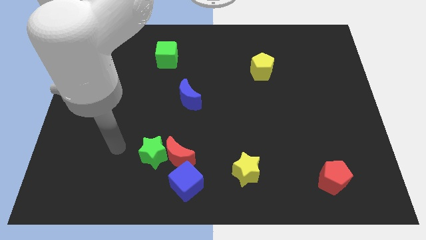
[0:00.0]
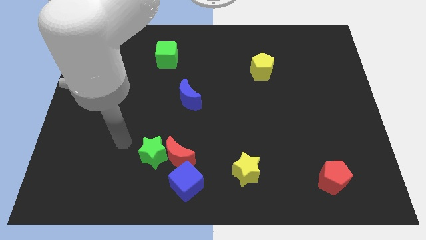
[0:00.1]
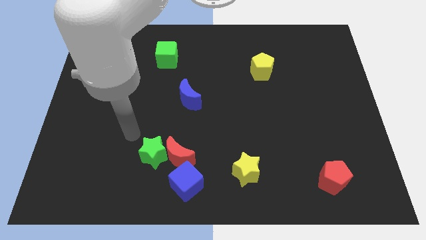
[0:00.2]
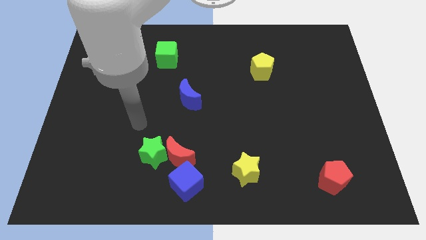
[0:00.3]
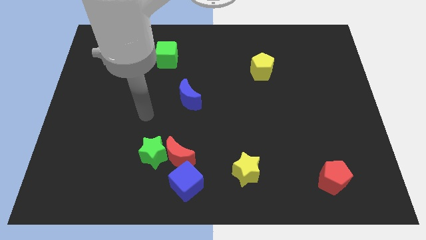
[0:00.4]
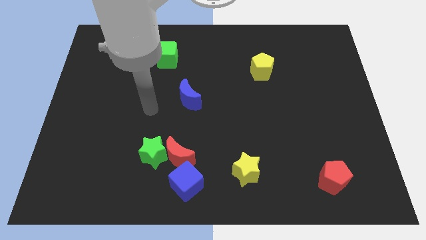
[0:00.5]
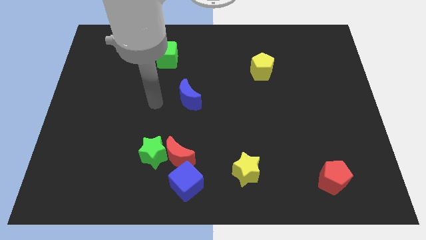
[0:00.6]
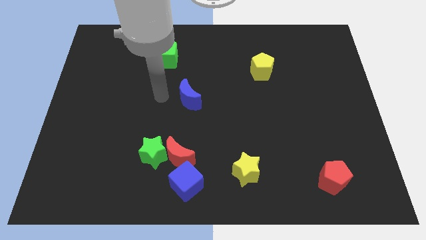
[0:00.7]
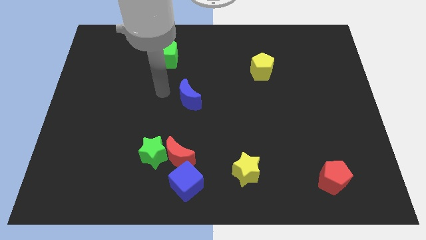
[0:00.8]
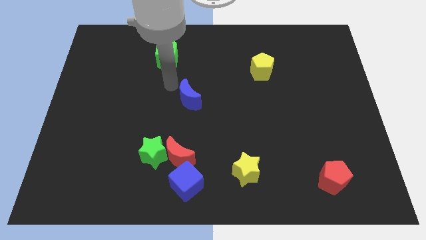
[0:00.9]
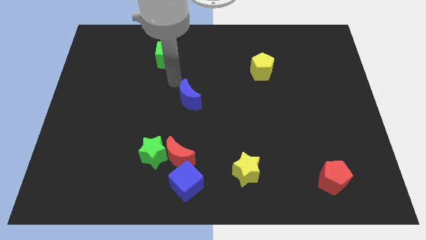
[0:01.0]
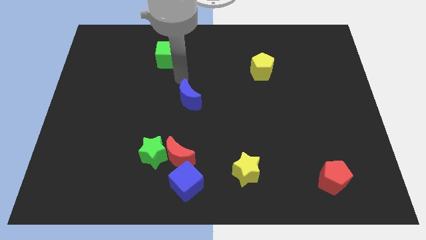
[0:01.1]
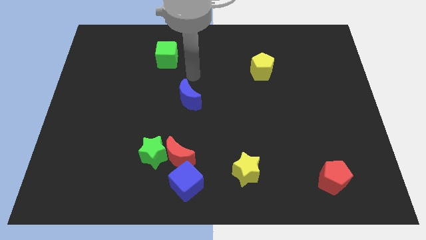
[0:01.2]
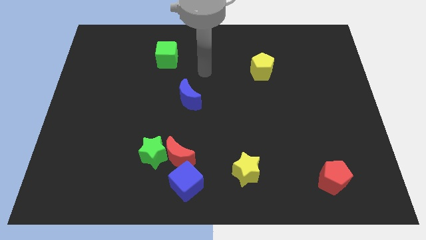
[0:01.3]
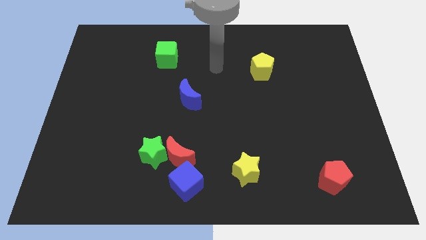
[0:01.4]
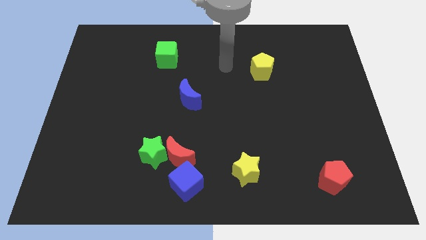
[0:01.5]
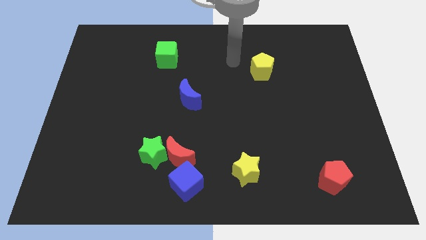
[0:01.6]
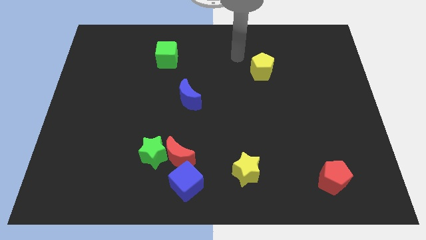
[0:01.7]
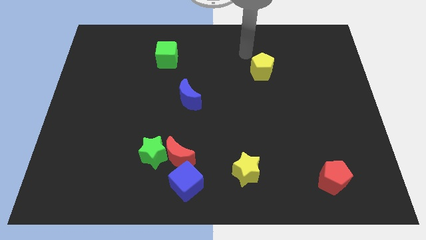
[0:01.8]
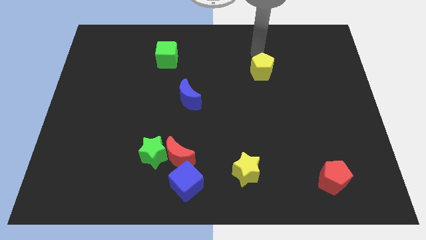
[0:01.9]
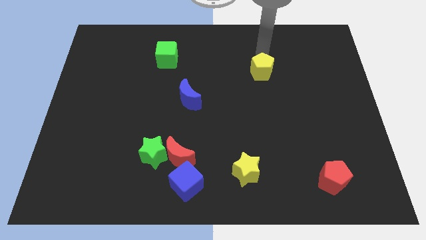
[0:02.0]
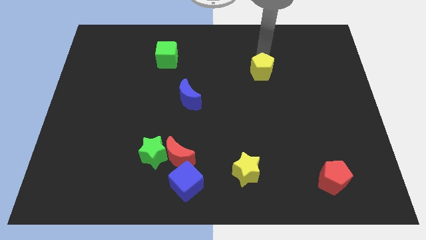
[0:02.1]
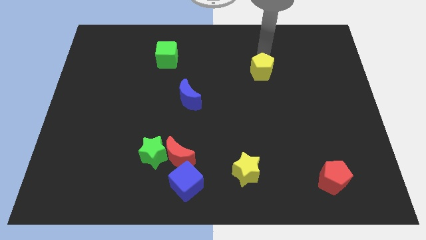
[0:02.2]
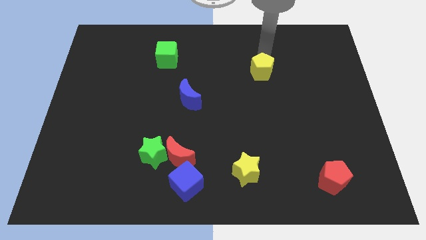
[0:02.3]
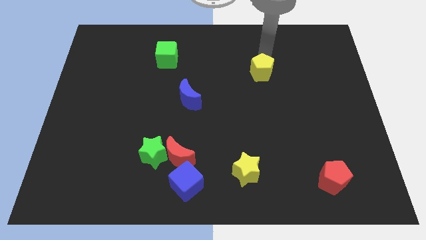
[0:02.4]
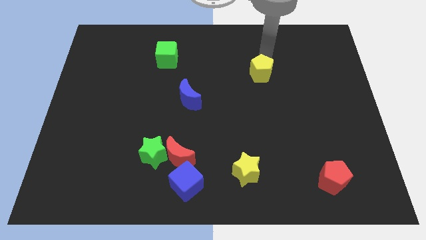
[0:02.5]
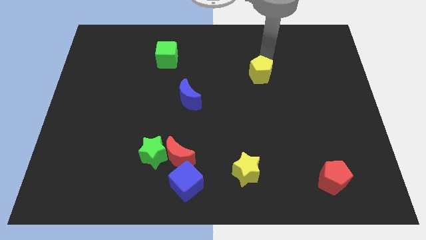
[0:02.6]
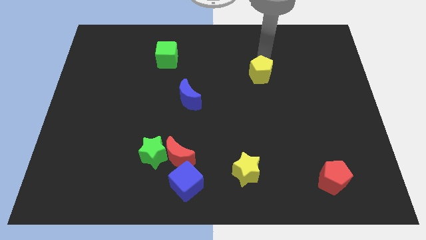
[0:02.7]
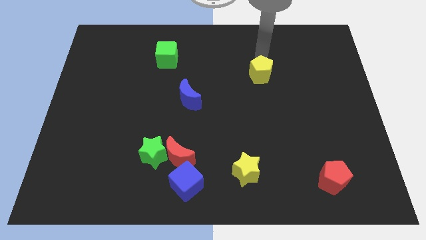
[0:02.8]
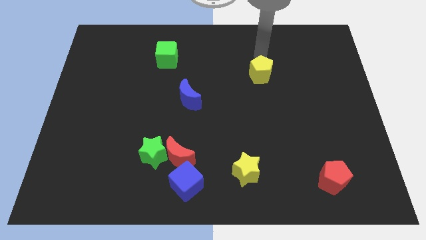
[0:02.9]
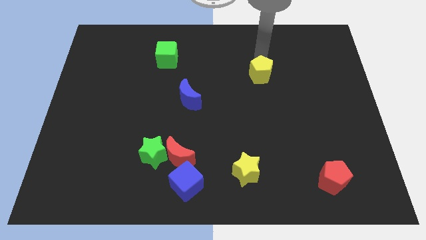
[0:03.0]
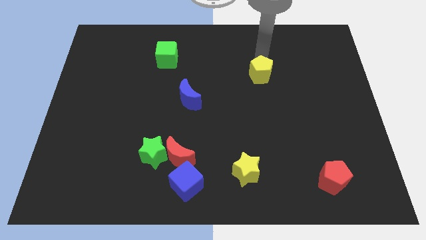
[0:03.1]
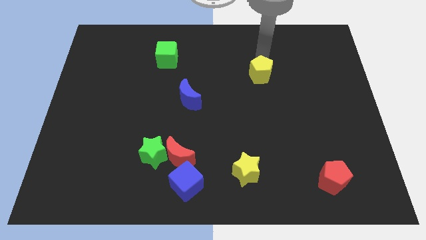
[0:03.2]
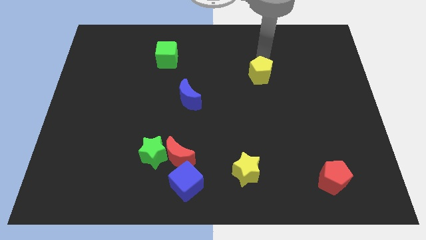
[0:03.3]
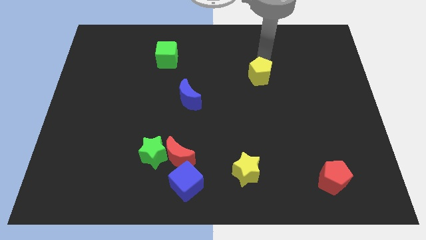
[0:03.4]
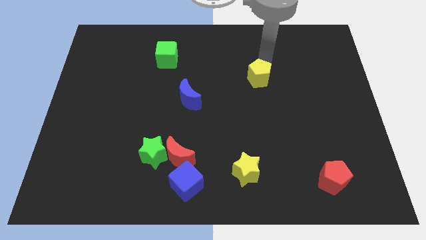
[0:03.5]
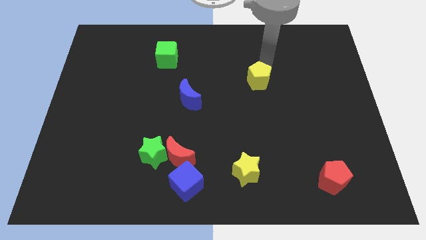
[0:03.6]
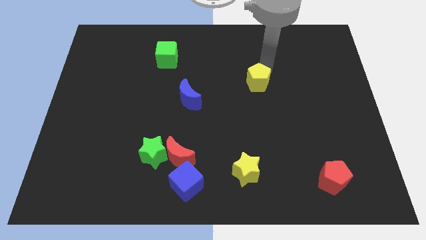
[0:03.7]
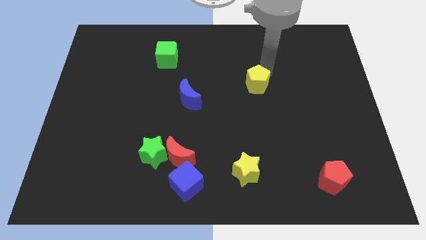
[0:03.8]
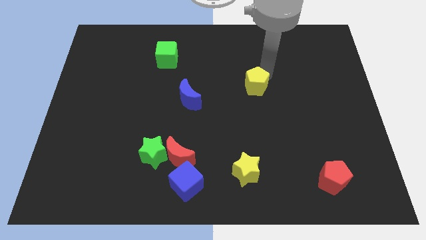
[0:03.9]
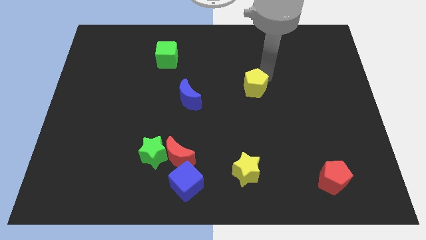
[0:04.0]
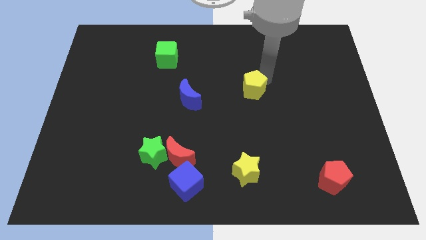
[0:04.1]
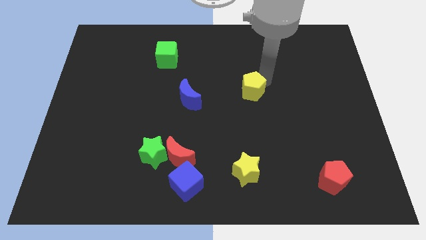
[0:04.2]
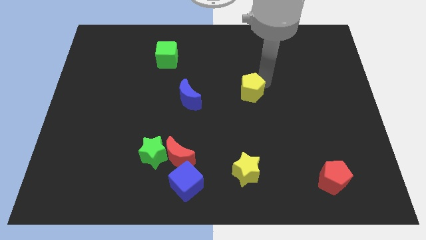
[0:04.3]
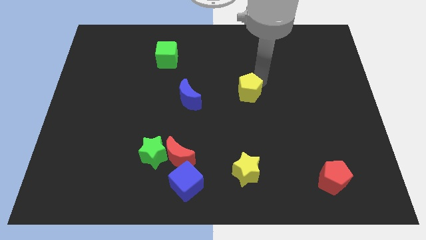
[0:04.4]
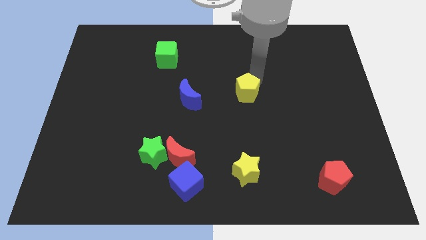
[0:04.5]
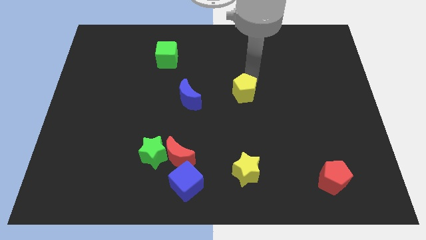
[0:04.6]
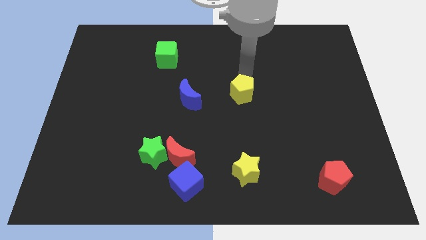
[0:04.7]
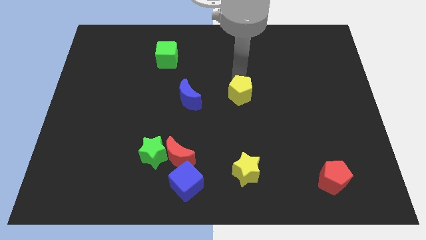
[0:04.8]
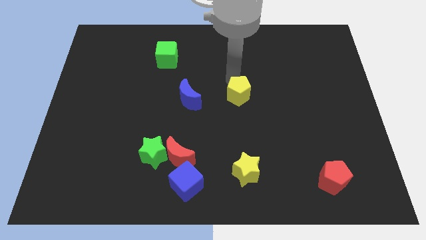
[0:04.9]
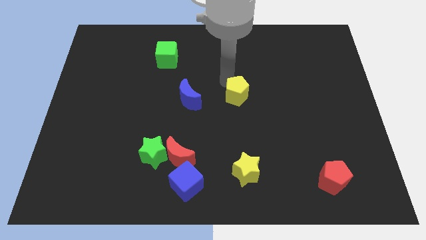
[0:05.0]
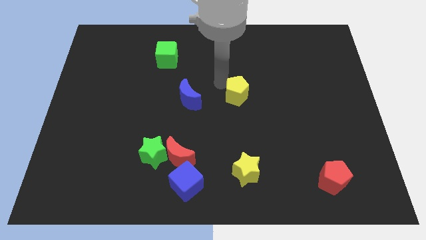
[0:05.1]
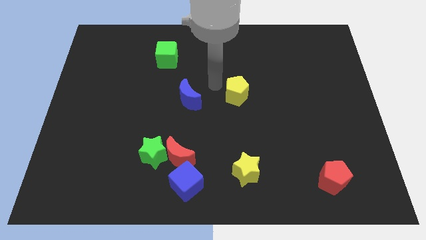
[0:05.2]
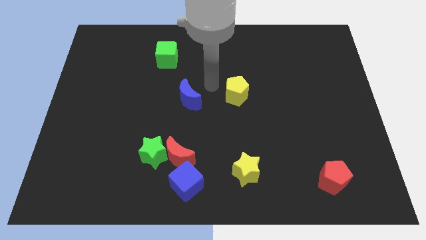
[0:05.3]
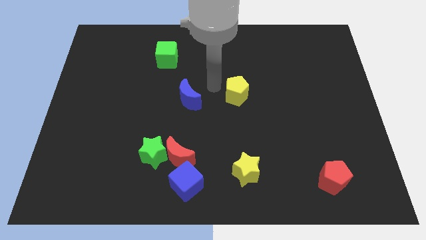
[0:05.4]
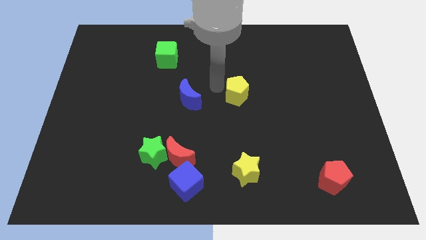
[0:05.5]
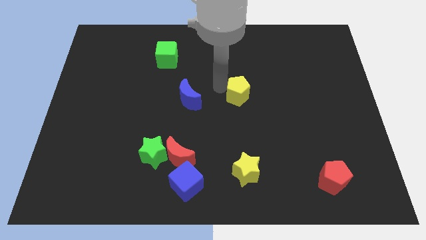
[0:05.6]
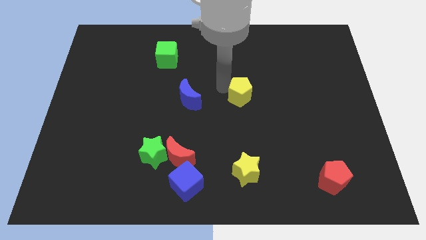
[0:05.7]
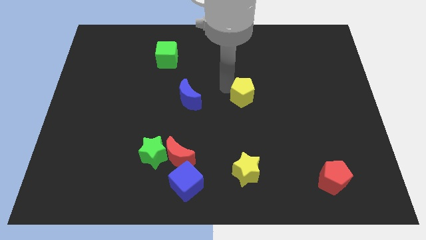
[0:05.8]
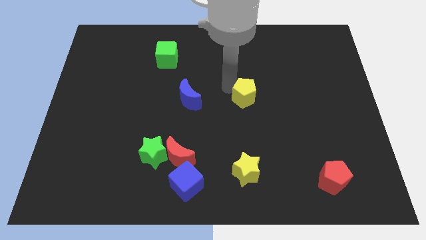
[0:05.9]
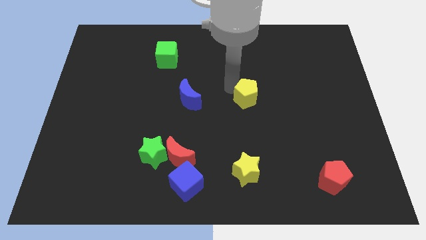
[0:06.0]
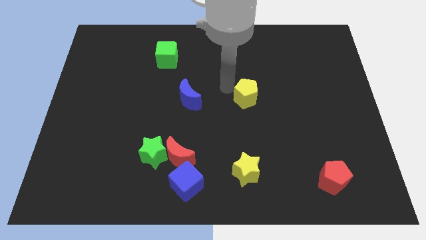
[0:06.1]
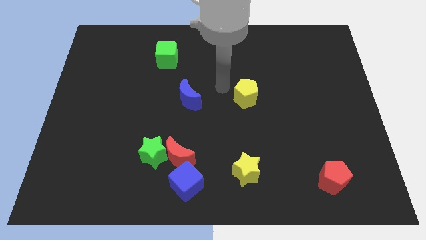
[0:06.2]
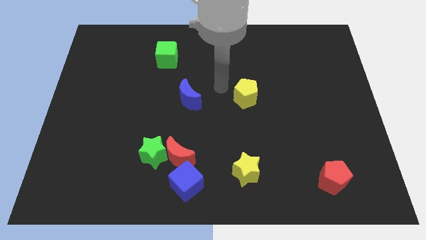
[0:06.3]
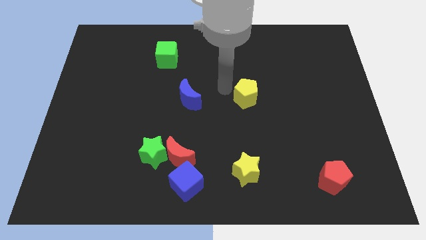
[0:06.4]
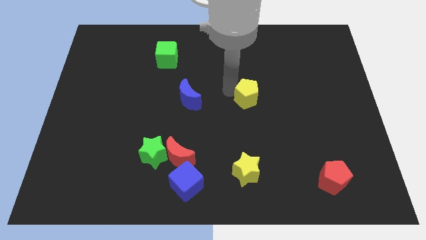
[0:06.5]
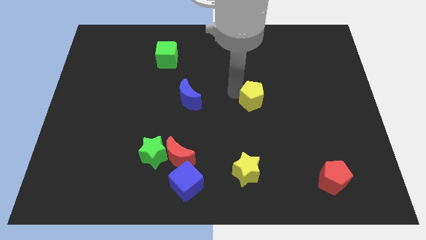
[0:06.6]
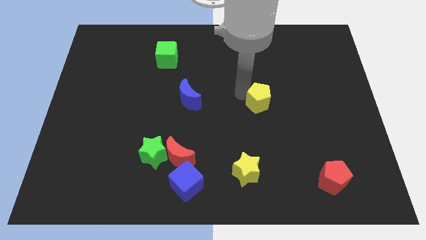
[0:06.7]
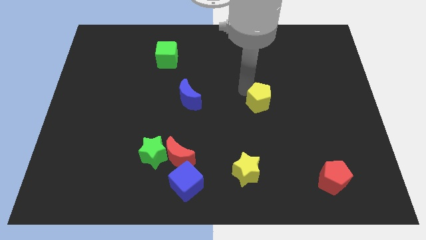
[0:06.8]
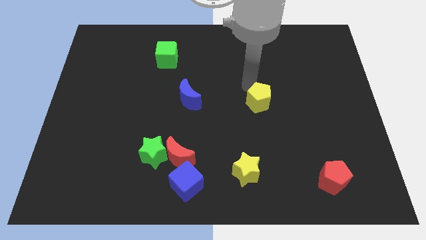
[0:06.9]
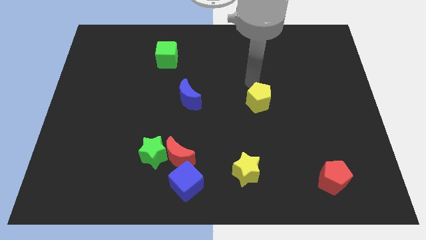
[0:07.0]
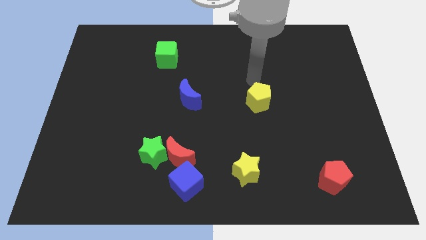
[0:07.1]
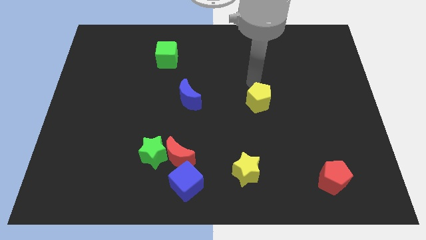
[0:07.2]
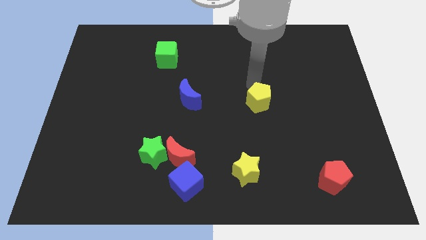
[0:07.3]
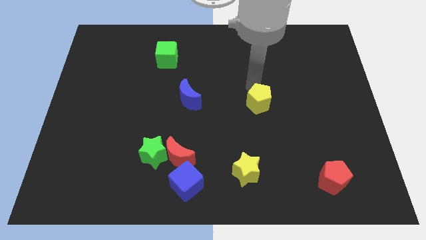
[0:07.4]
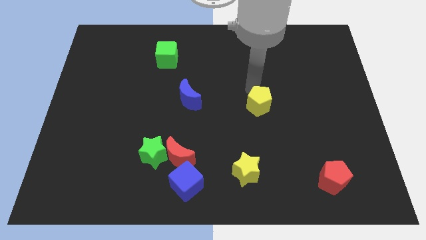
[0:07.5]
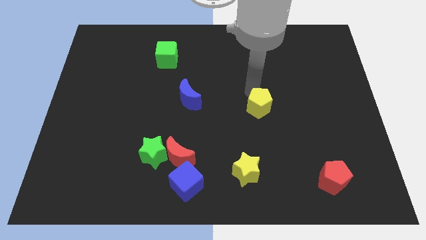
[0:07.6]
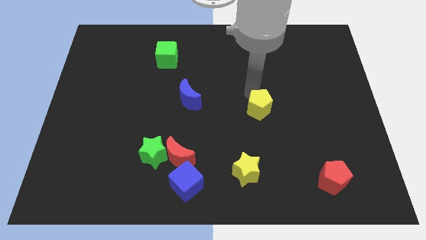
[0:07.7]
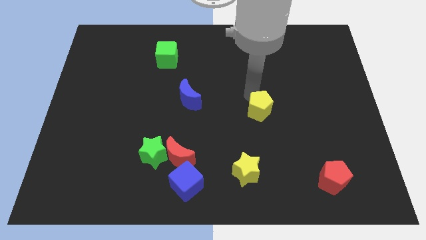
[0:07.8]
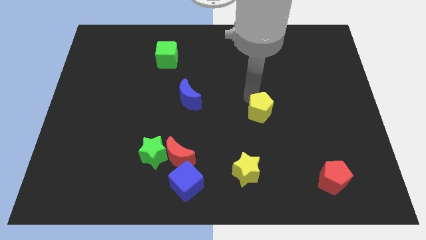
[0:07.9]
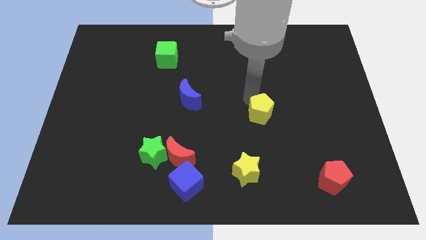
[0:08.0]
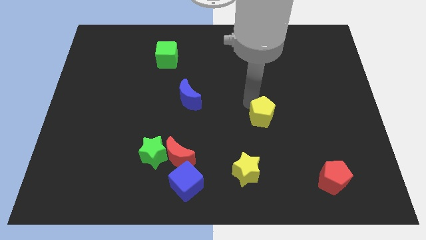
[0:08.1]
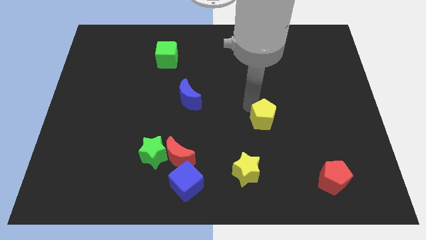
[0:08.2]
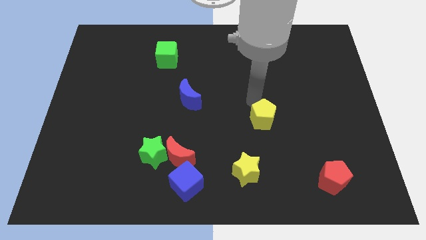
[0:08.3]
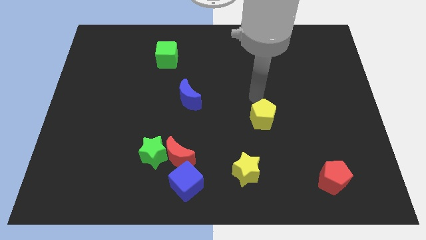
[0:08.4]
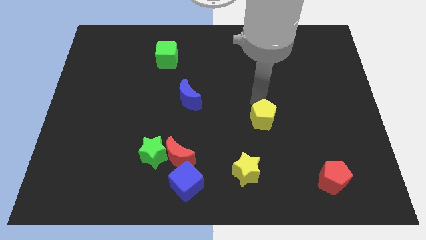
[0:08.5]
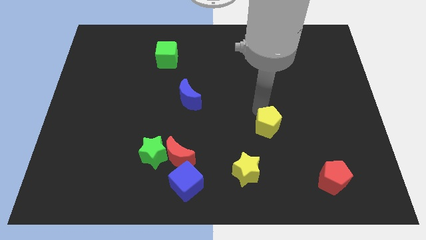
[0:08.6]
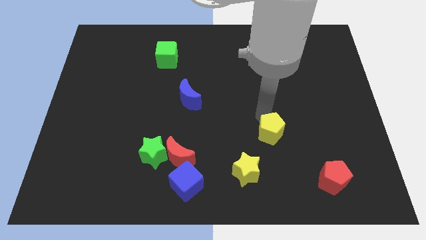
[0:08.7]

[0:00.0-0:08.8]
put the yellow pentagon diagonally up and to the right of the yellow star
